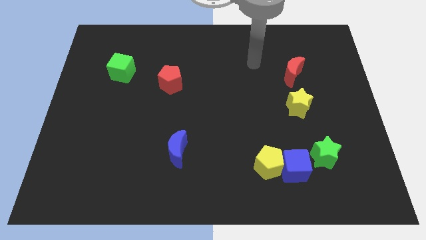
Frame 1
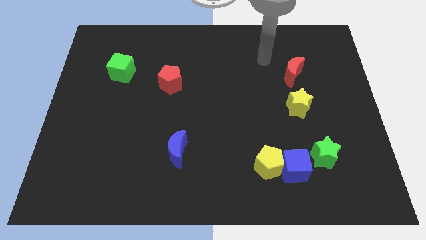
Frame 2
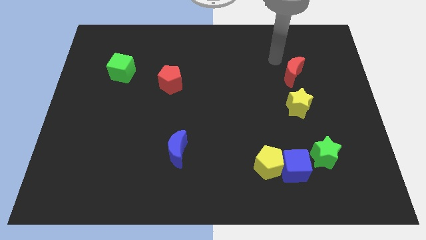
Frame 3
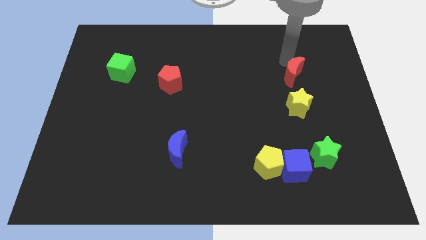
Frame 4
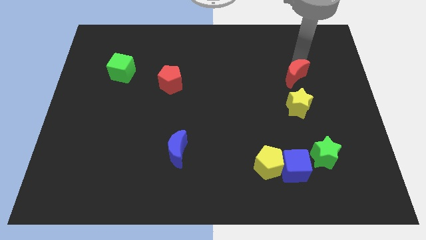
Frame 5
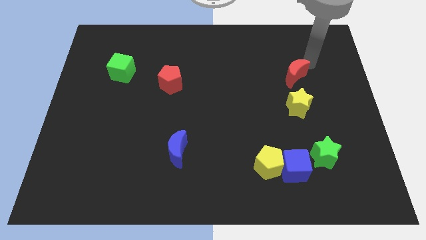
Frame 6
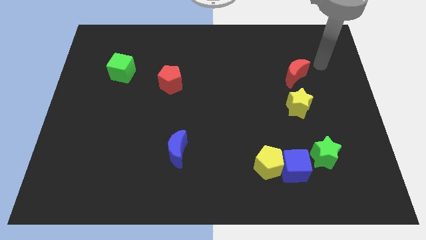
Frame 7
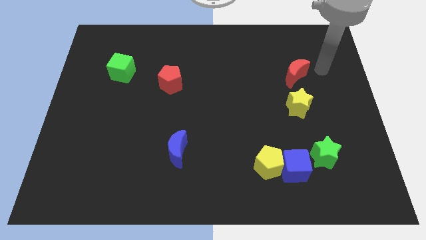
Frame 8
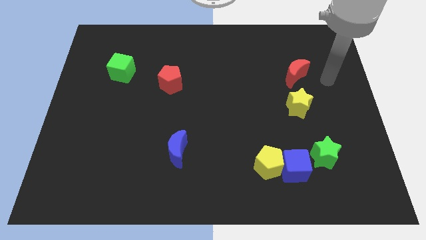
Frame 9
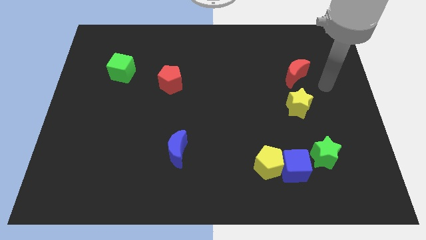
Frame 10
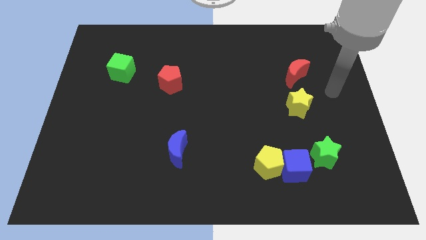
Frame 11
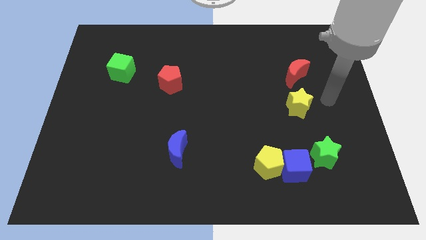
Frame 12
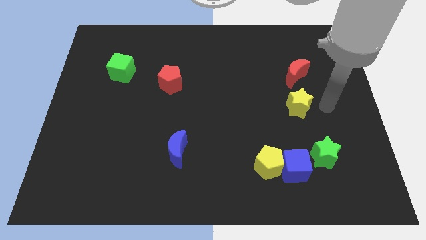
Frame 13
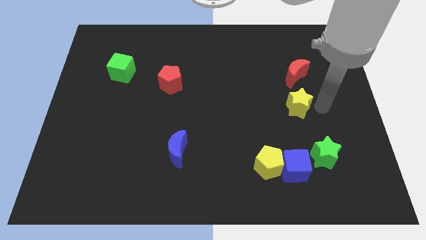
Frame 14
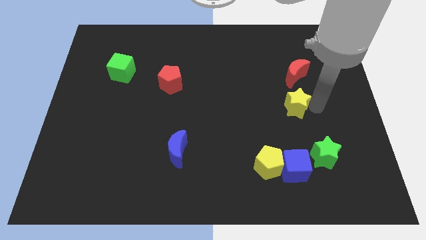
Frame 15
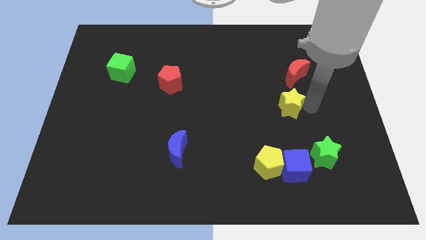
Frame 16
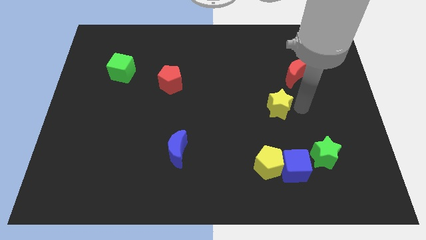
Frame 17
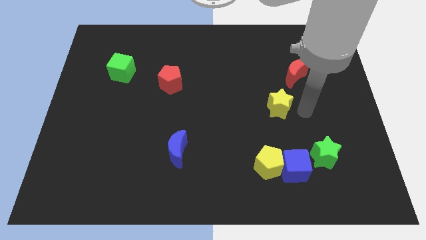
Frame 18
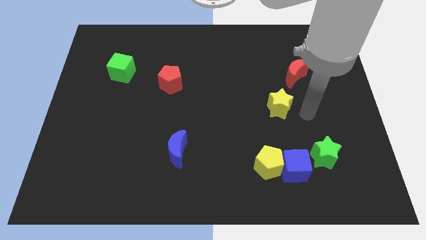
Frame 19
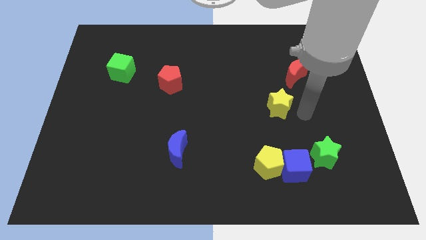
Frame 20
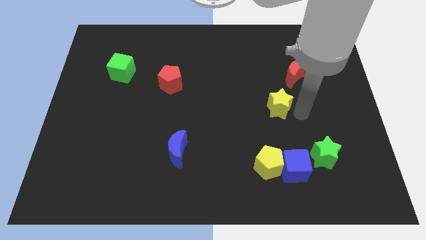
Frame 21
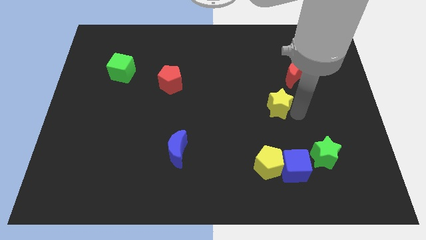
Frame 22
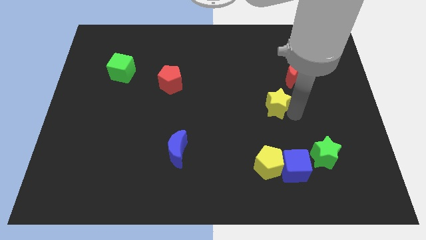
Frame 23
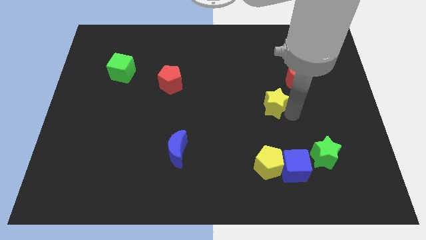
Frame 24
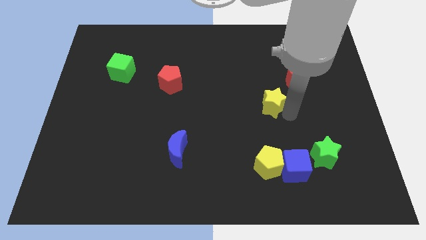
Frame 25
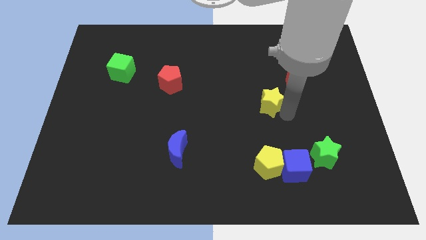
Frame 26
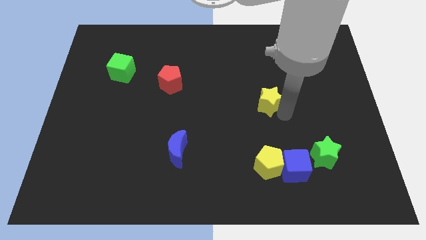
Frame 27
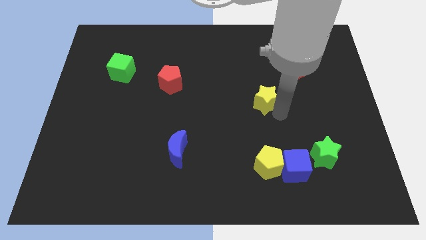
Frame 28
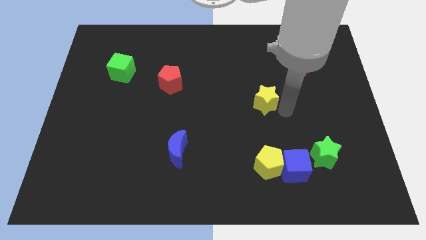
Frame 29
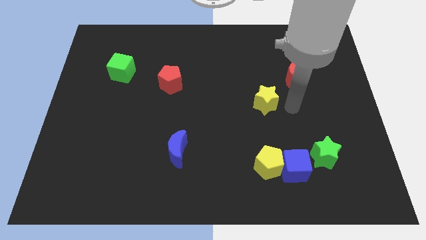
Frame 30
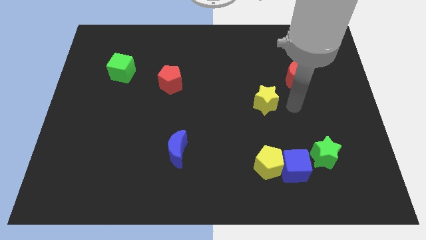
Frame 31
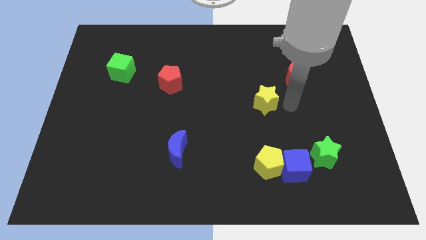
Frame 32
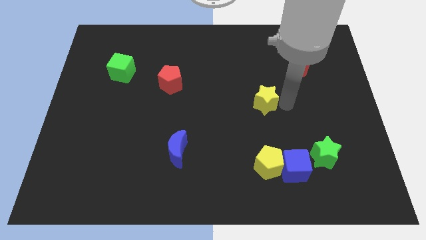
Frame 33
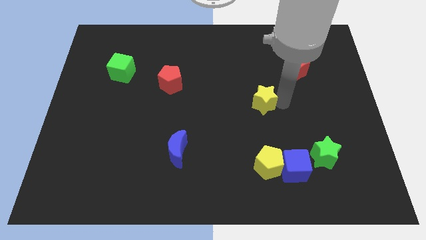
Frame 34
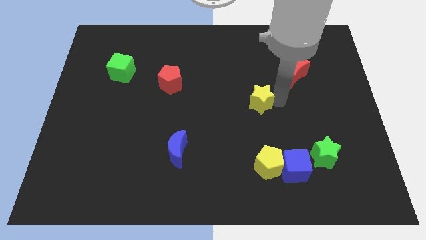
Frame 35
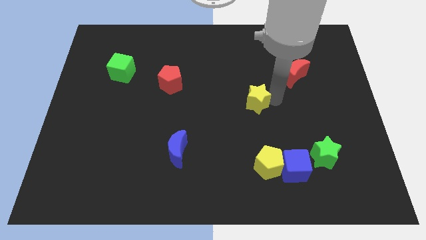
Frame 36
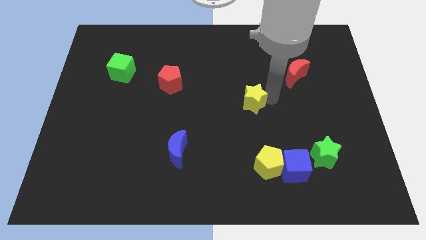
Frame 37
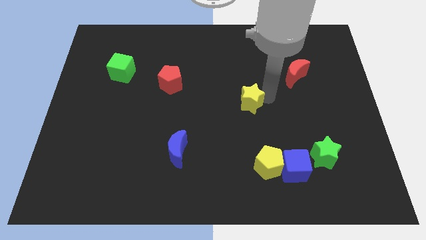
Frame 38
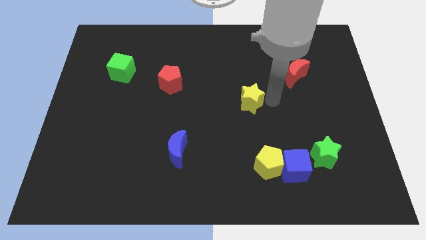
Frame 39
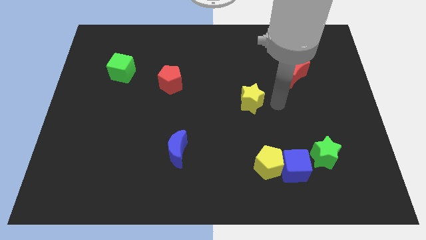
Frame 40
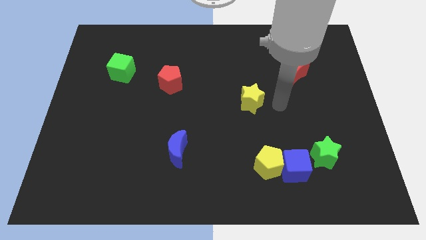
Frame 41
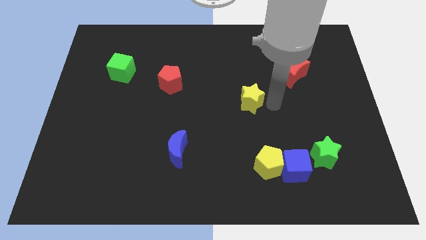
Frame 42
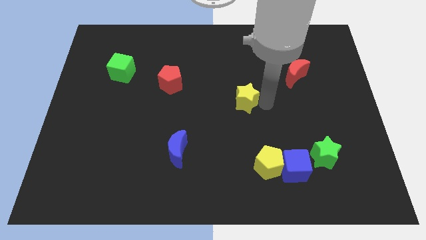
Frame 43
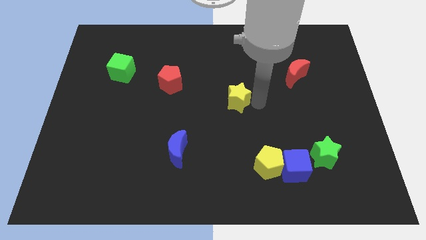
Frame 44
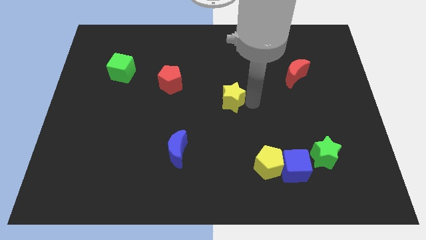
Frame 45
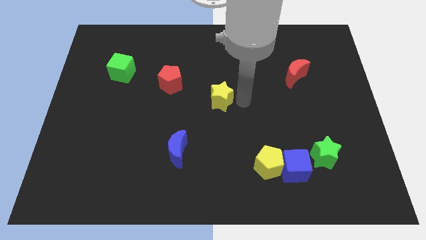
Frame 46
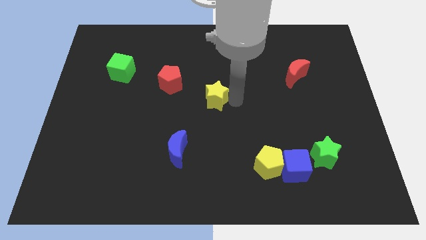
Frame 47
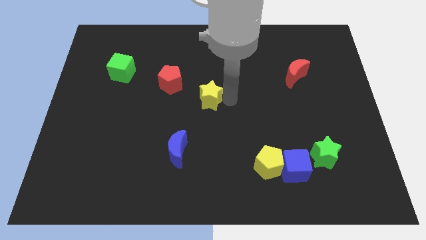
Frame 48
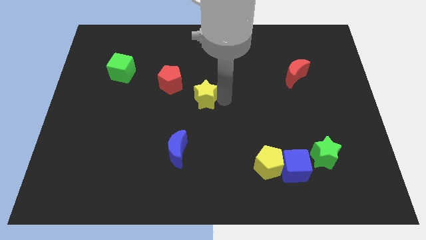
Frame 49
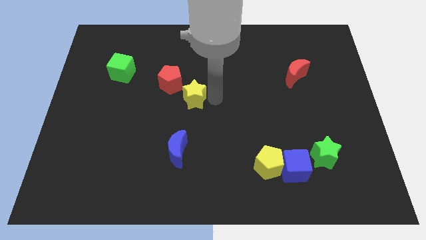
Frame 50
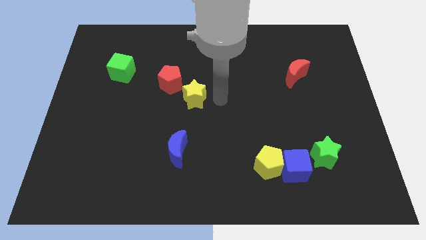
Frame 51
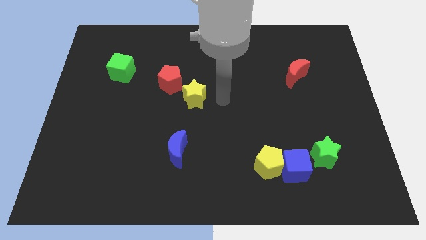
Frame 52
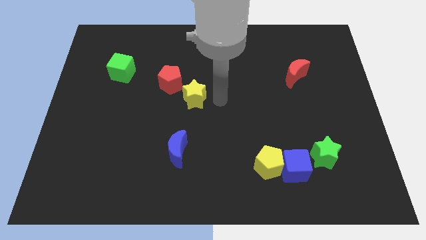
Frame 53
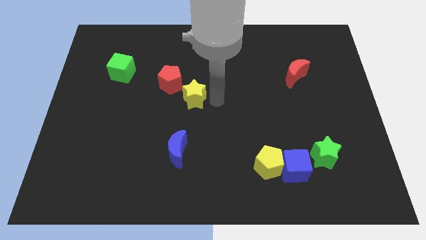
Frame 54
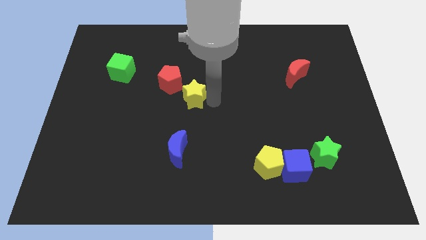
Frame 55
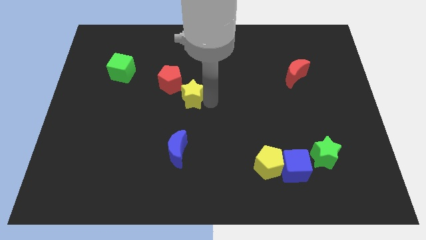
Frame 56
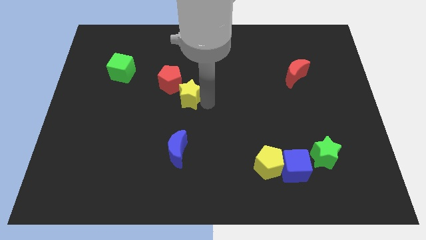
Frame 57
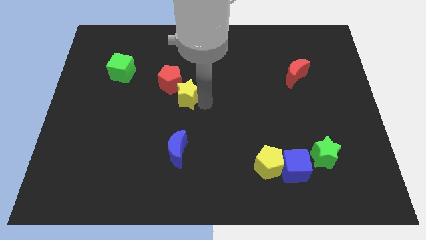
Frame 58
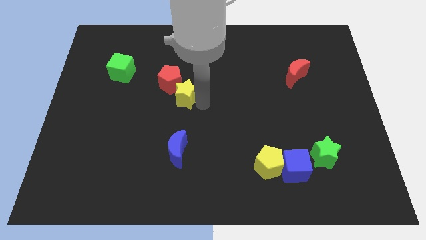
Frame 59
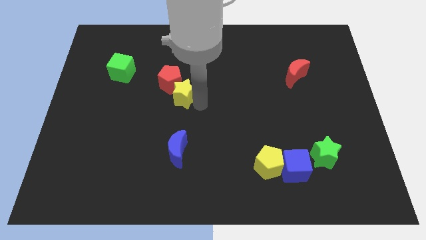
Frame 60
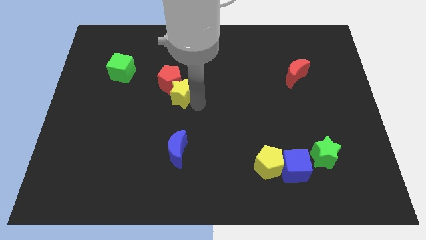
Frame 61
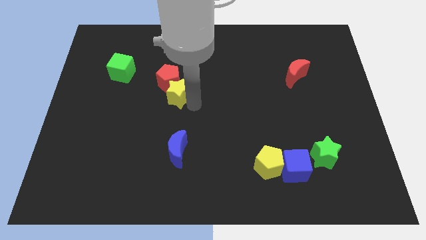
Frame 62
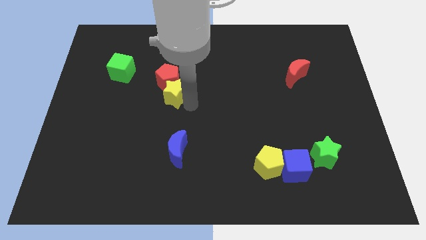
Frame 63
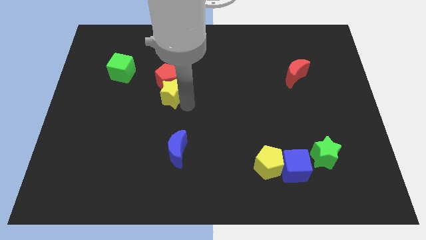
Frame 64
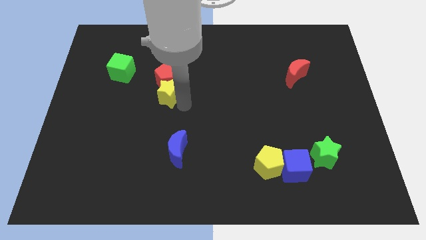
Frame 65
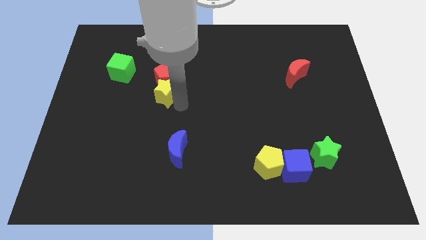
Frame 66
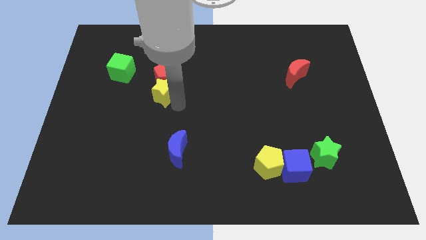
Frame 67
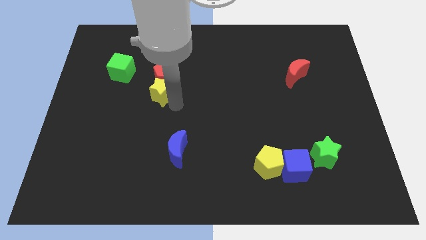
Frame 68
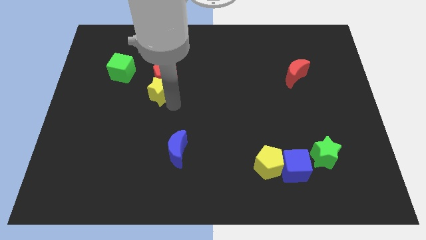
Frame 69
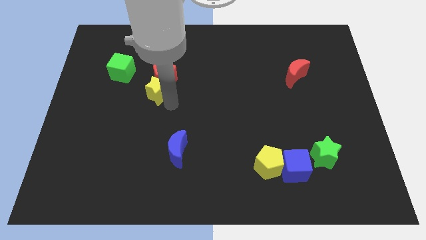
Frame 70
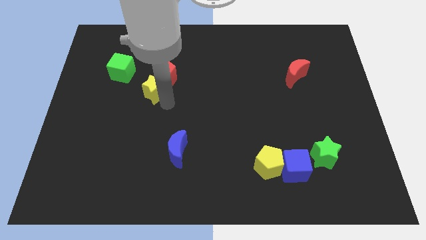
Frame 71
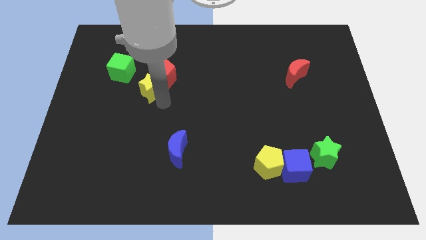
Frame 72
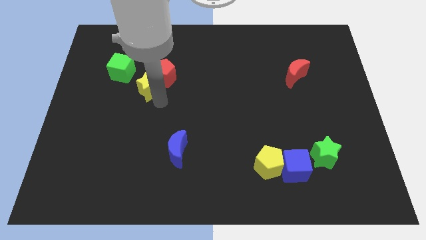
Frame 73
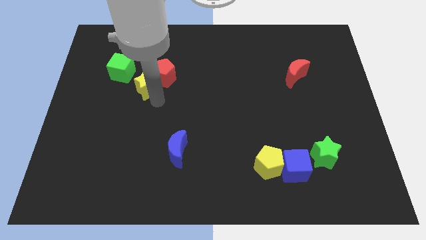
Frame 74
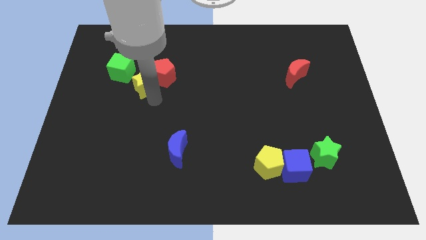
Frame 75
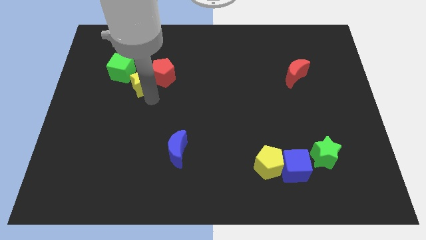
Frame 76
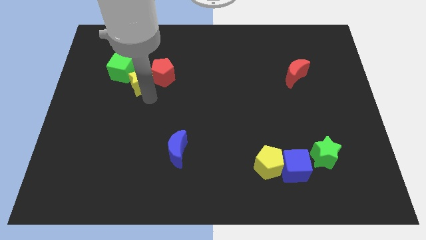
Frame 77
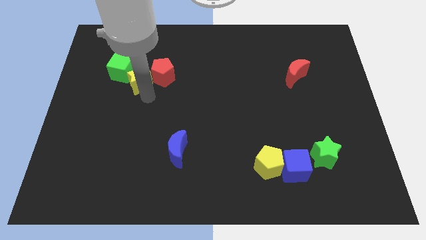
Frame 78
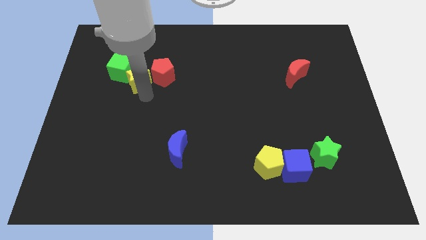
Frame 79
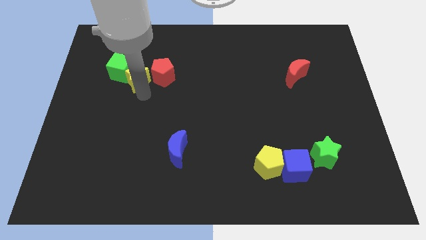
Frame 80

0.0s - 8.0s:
push the yellow star towards the green cube

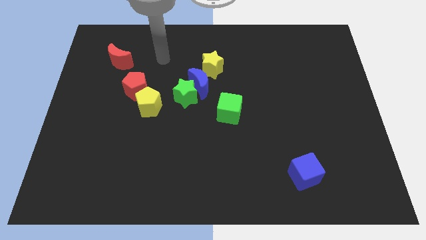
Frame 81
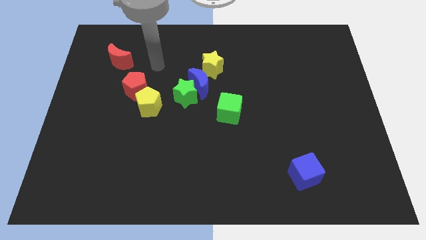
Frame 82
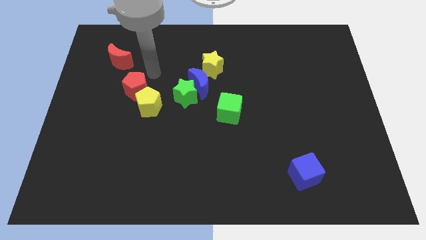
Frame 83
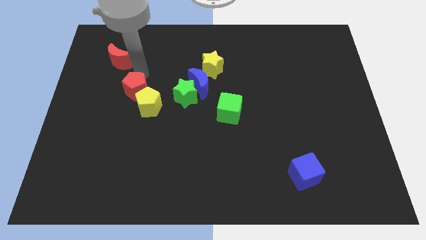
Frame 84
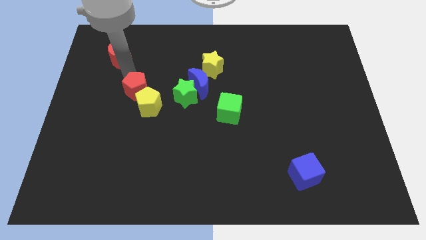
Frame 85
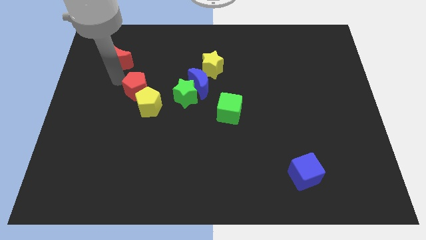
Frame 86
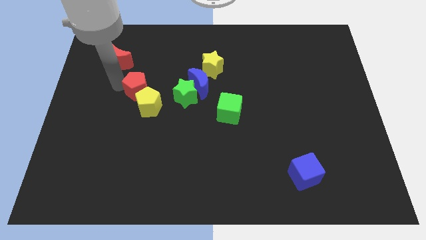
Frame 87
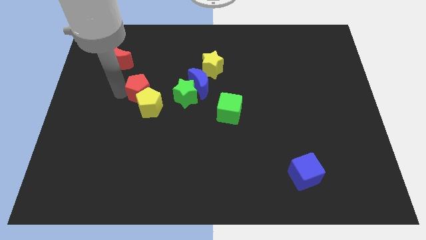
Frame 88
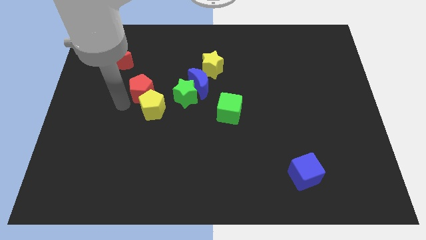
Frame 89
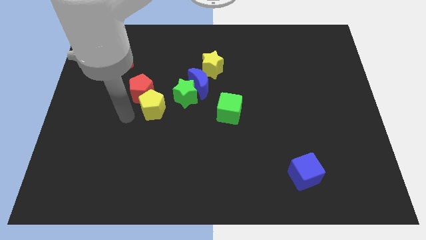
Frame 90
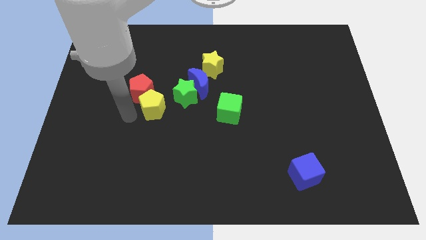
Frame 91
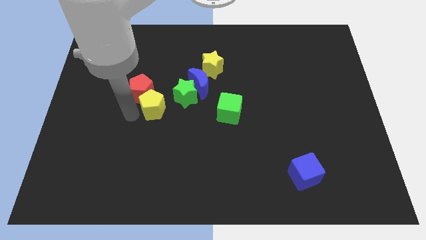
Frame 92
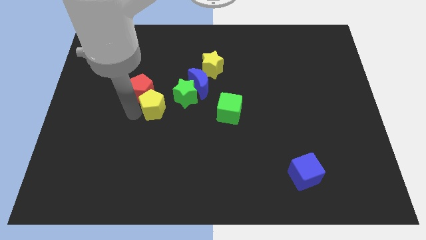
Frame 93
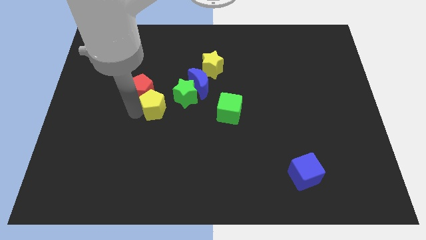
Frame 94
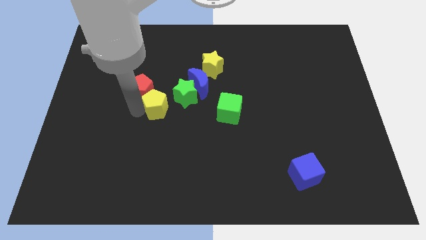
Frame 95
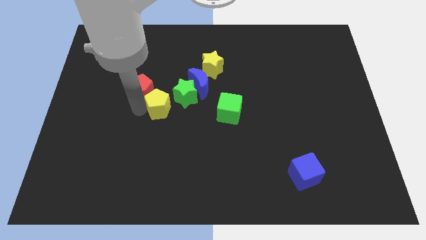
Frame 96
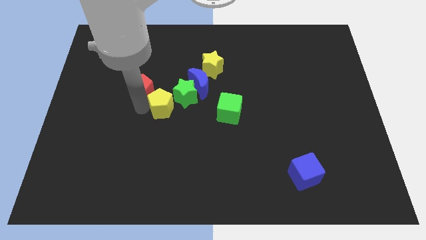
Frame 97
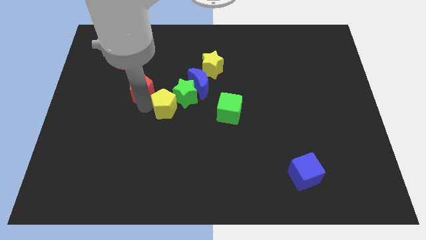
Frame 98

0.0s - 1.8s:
push the yellow pentagon next to the green star
